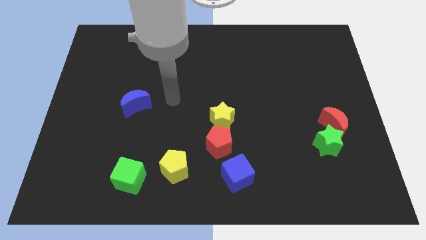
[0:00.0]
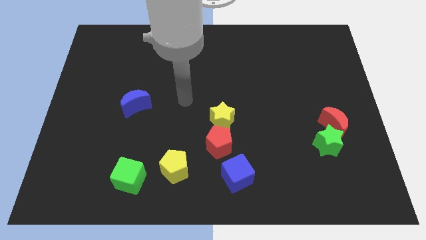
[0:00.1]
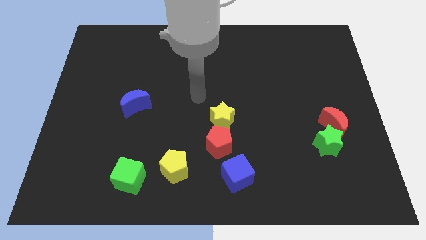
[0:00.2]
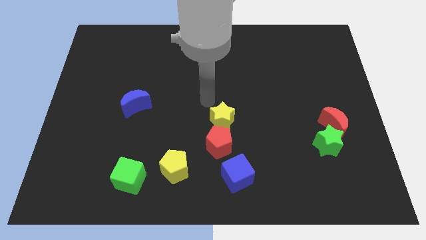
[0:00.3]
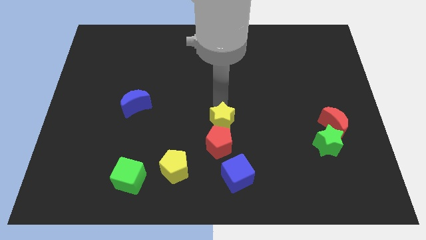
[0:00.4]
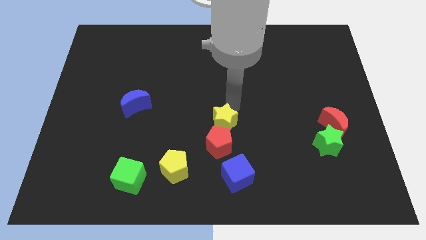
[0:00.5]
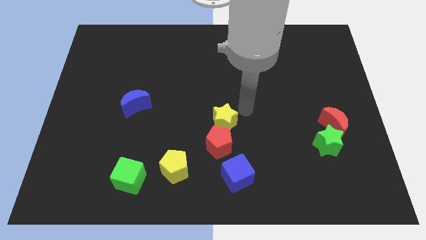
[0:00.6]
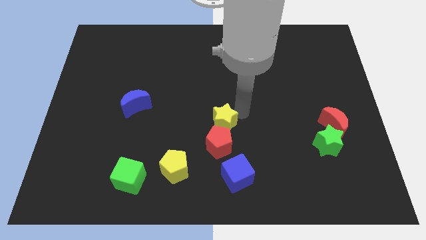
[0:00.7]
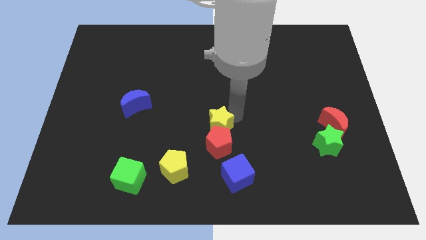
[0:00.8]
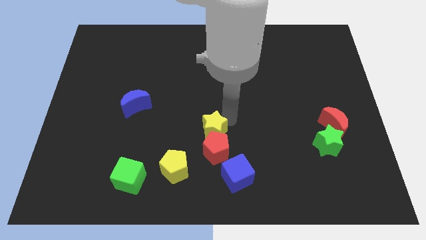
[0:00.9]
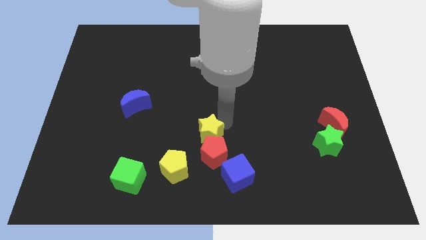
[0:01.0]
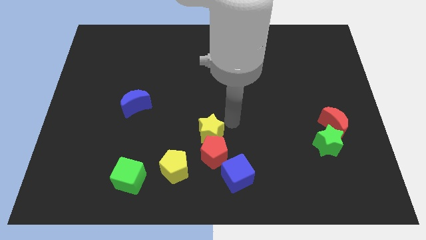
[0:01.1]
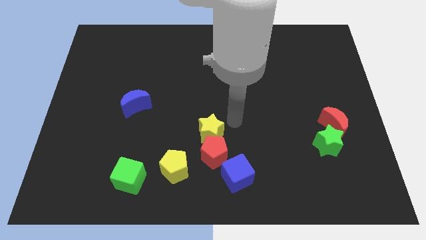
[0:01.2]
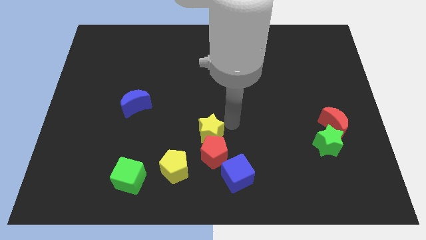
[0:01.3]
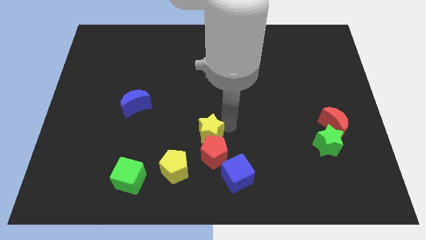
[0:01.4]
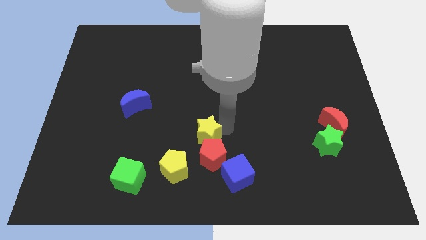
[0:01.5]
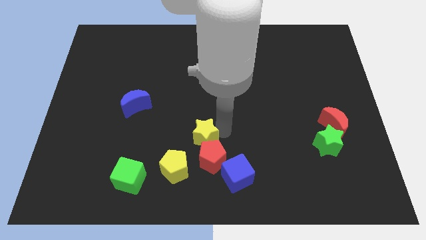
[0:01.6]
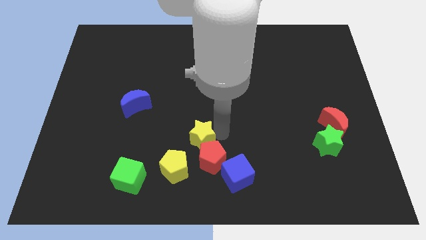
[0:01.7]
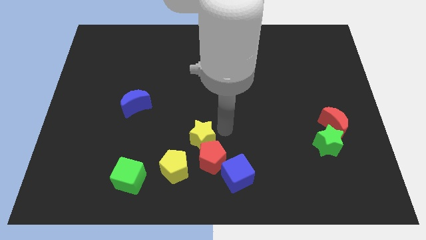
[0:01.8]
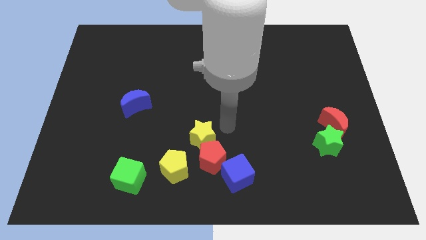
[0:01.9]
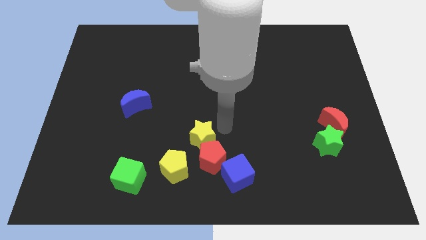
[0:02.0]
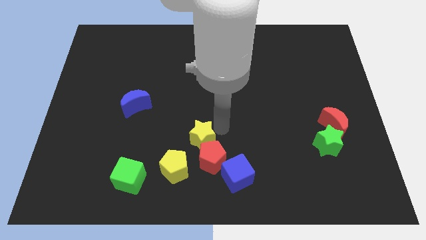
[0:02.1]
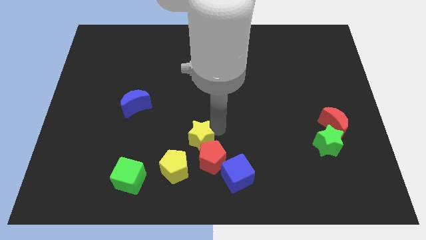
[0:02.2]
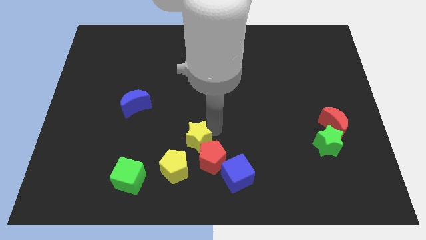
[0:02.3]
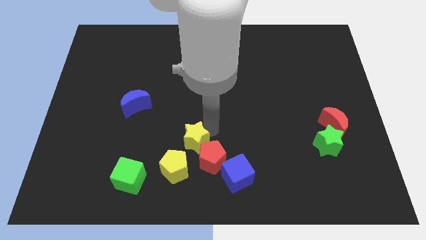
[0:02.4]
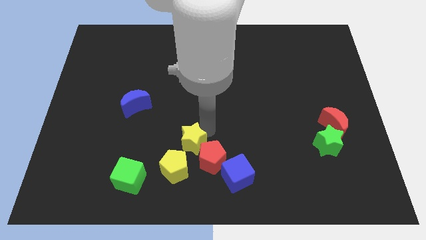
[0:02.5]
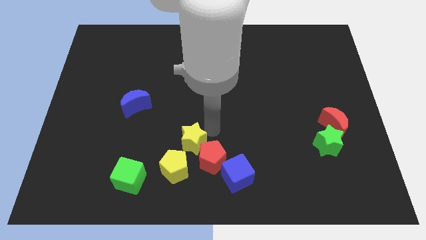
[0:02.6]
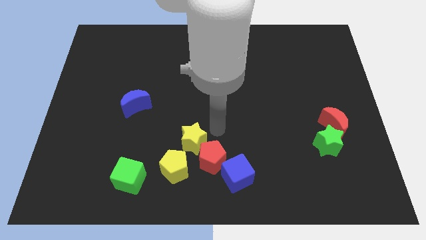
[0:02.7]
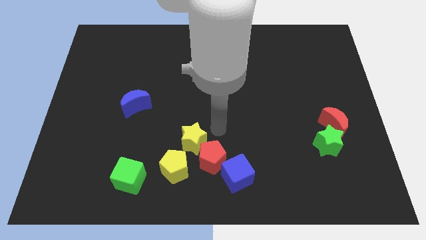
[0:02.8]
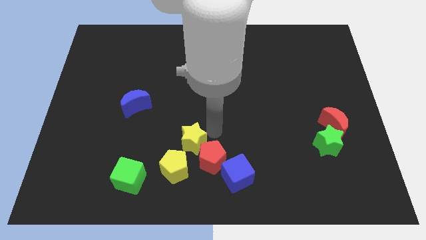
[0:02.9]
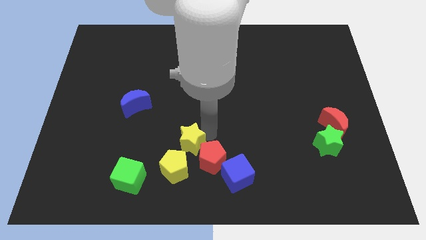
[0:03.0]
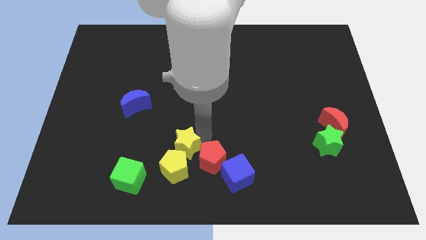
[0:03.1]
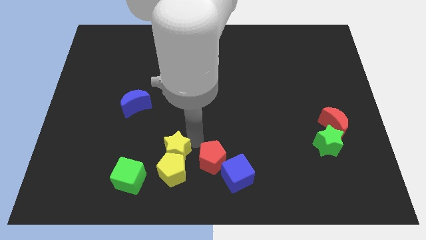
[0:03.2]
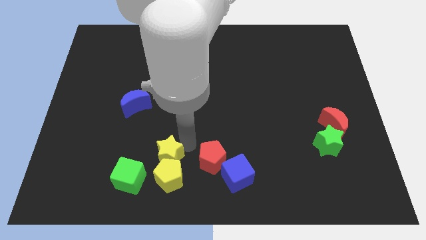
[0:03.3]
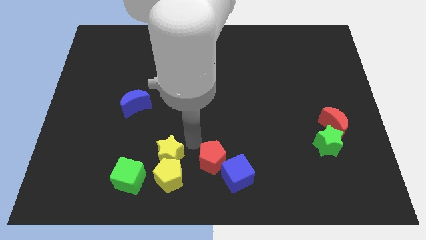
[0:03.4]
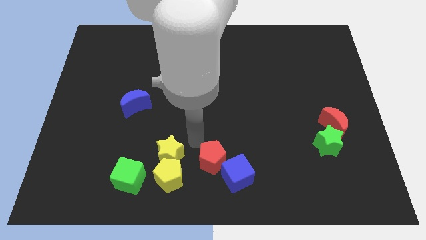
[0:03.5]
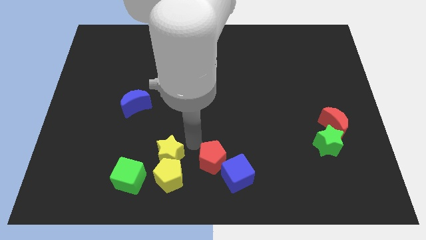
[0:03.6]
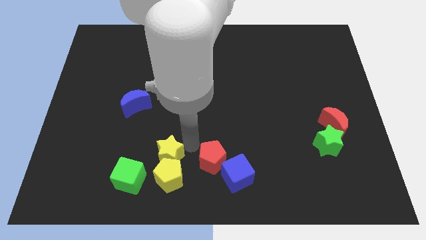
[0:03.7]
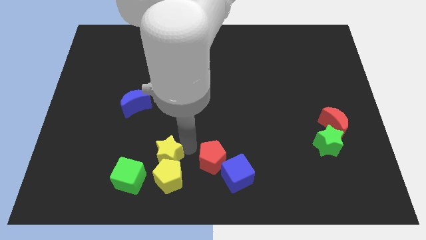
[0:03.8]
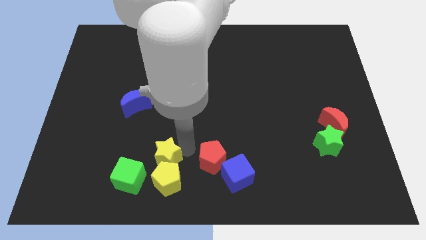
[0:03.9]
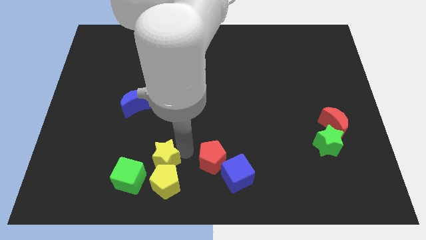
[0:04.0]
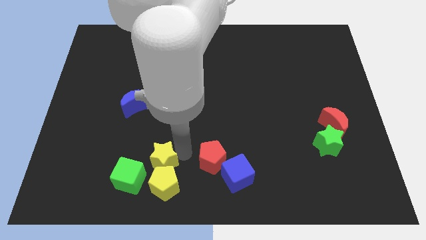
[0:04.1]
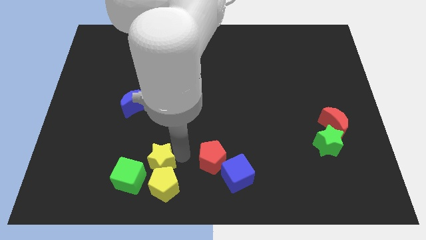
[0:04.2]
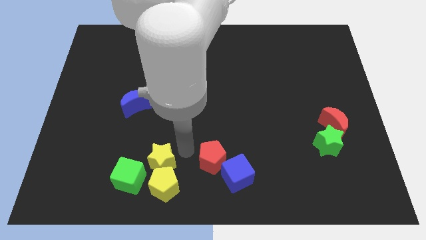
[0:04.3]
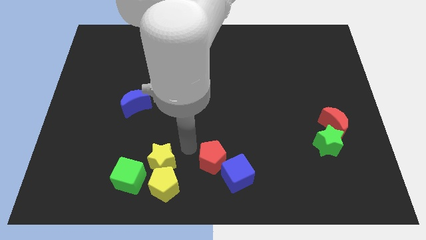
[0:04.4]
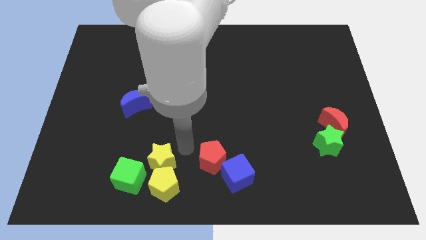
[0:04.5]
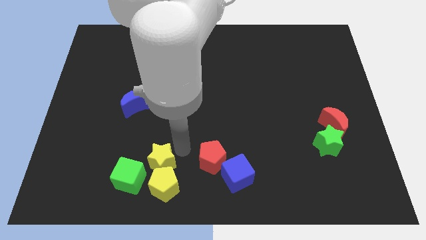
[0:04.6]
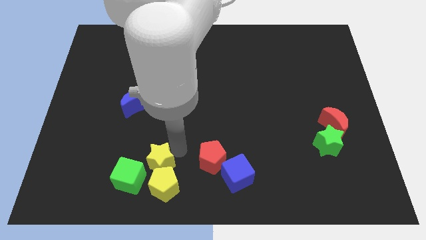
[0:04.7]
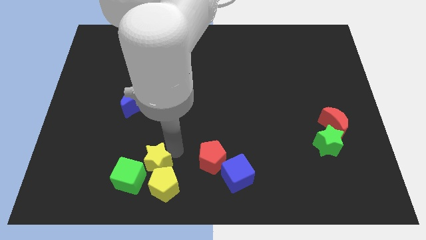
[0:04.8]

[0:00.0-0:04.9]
move the yellow star next to the green cube

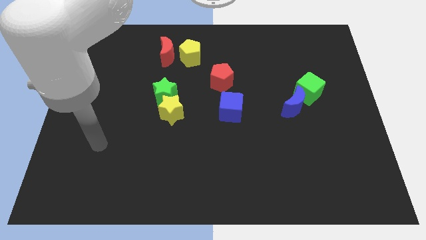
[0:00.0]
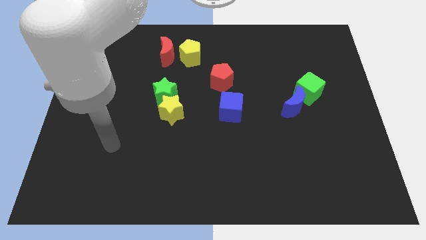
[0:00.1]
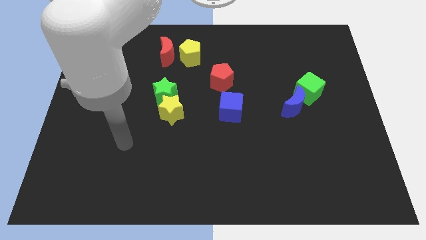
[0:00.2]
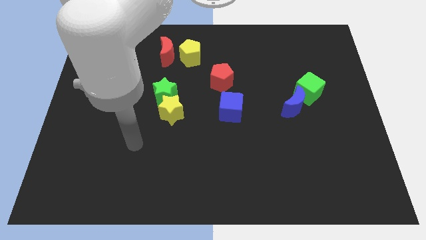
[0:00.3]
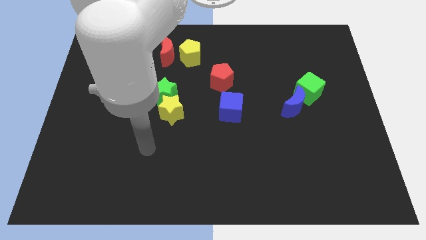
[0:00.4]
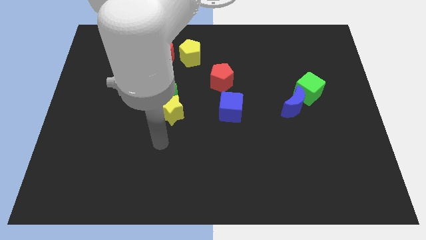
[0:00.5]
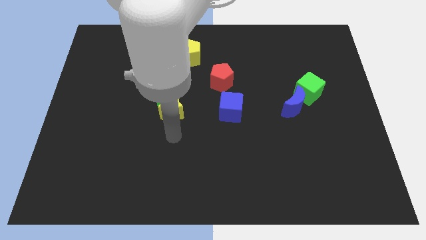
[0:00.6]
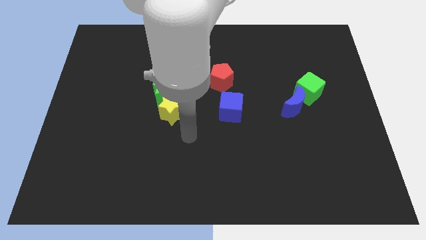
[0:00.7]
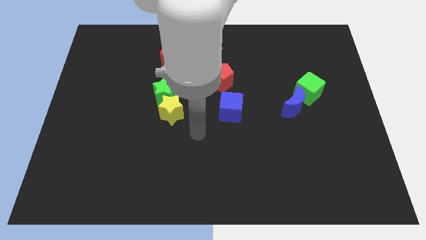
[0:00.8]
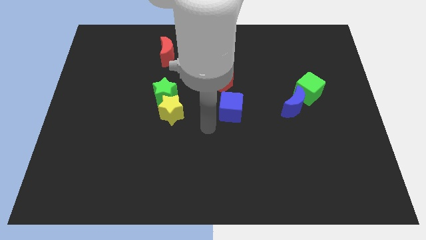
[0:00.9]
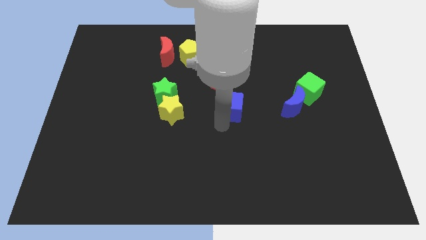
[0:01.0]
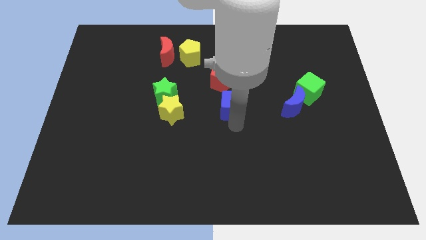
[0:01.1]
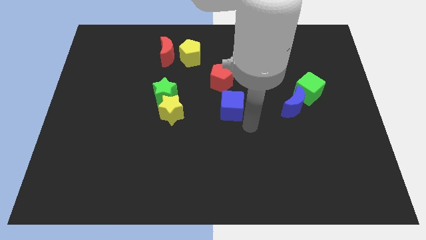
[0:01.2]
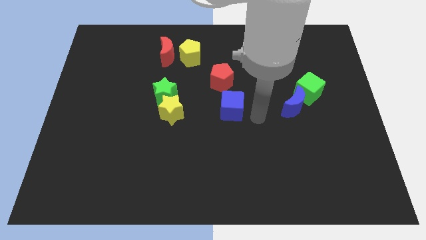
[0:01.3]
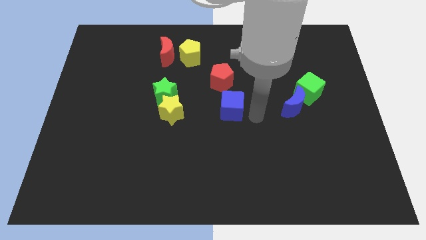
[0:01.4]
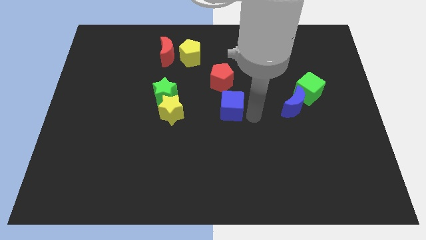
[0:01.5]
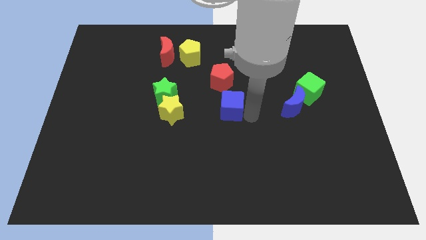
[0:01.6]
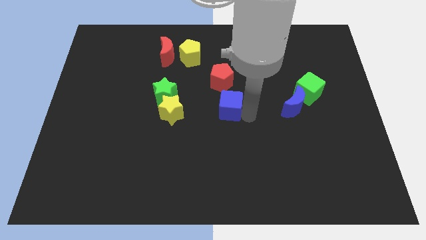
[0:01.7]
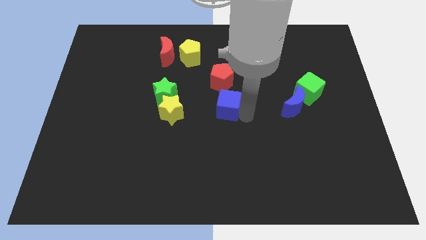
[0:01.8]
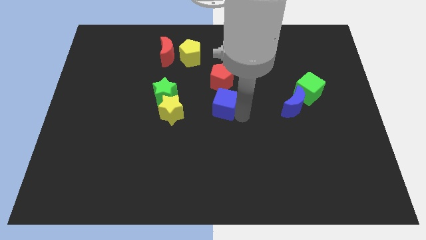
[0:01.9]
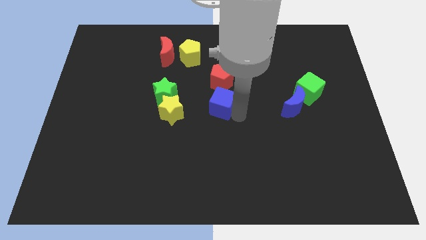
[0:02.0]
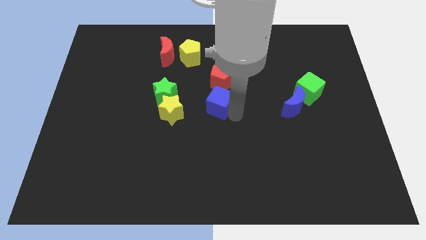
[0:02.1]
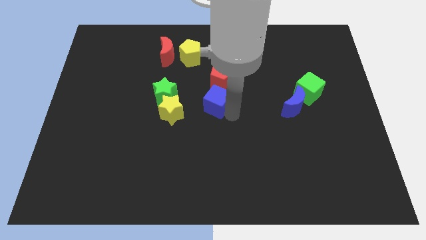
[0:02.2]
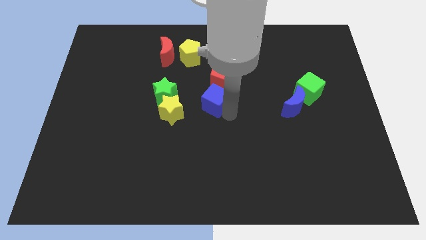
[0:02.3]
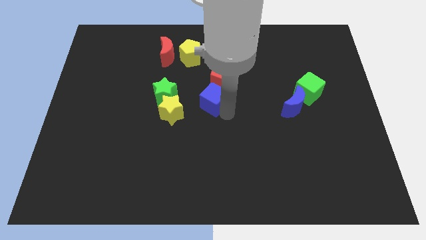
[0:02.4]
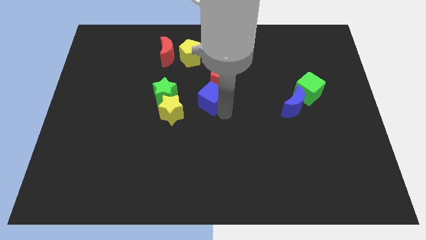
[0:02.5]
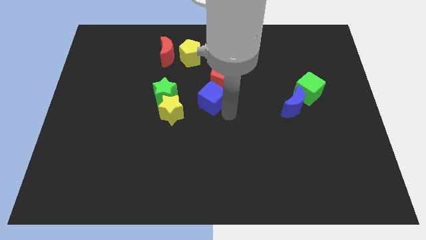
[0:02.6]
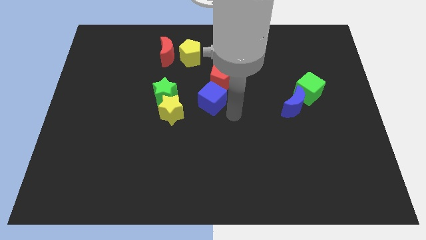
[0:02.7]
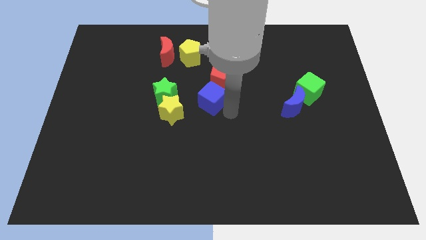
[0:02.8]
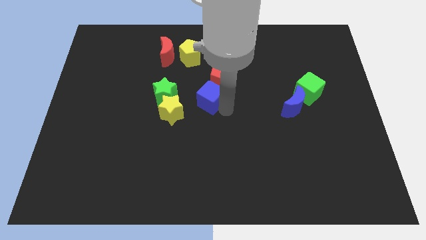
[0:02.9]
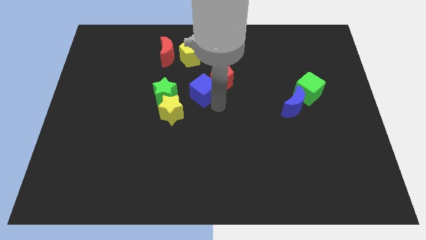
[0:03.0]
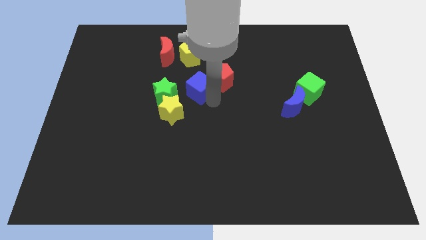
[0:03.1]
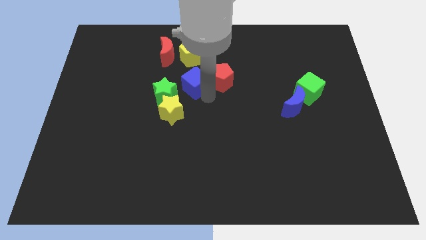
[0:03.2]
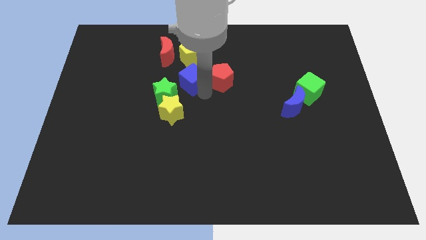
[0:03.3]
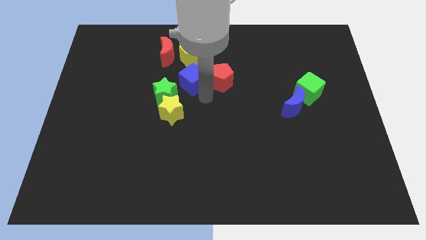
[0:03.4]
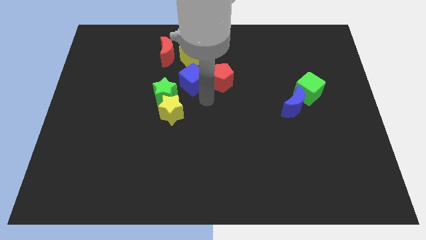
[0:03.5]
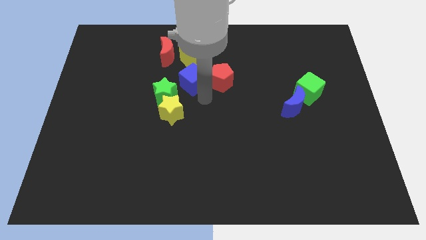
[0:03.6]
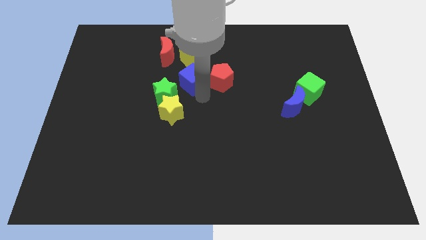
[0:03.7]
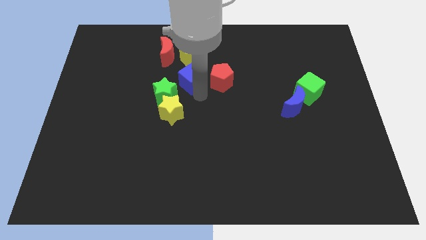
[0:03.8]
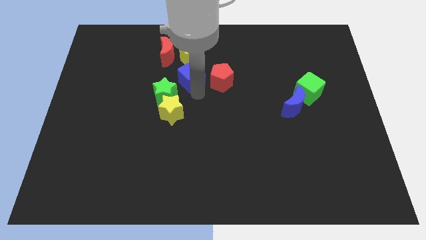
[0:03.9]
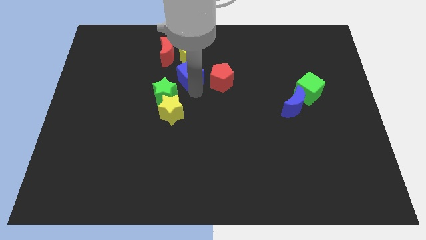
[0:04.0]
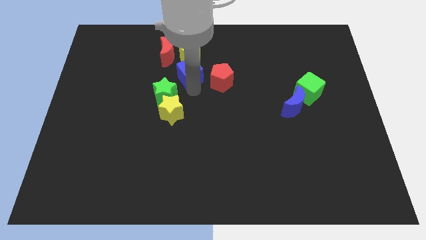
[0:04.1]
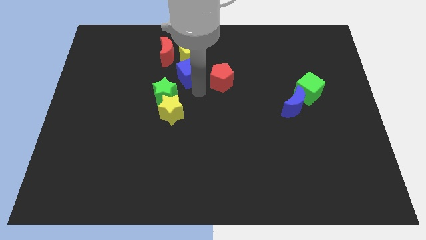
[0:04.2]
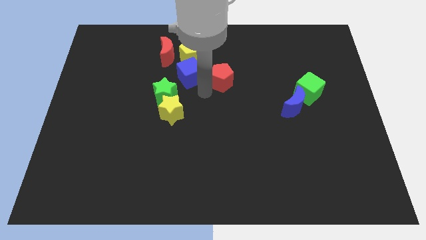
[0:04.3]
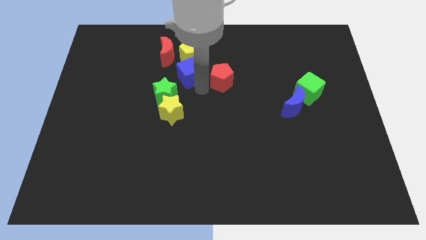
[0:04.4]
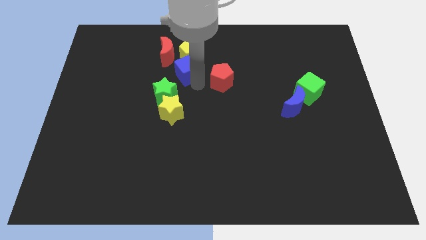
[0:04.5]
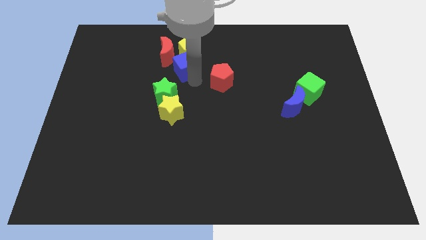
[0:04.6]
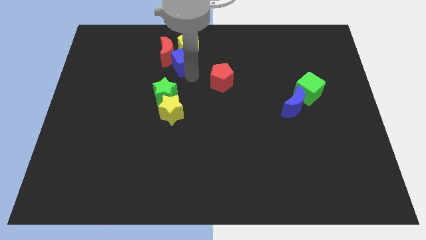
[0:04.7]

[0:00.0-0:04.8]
push the blue cube close to the red moon
